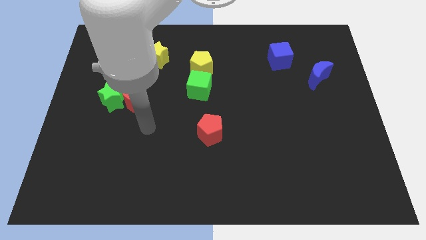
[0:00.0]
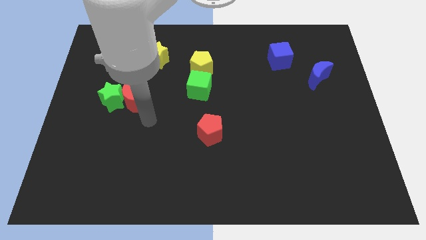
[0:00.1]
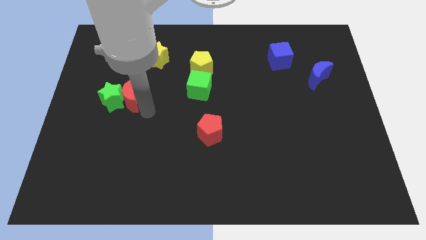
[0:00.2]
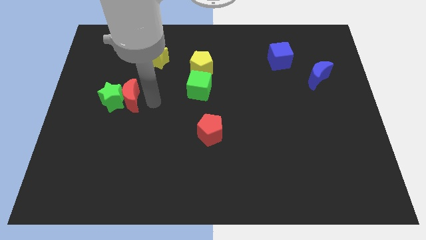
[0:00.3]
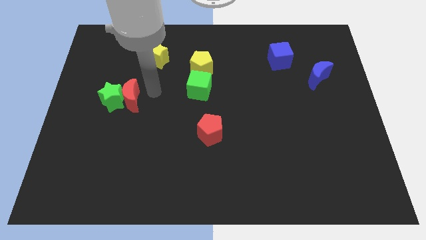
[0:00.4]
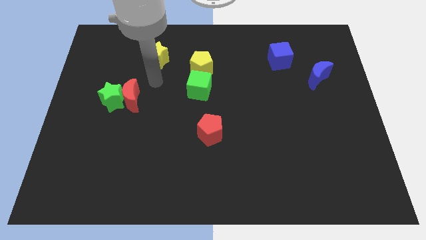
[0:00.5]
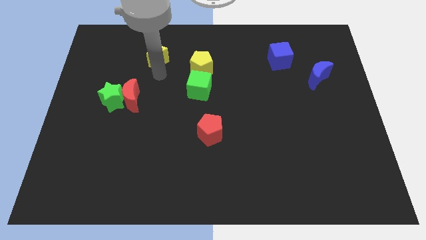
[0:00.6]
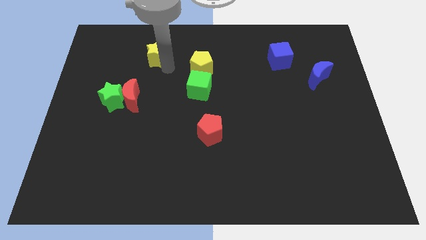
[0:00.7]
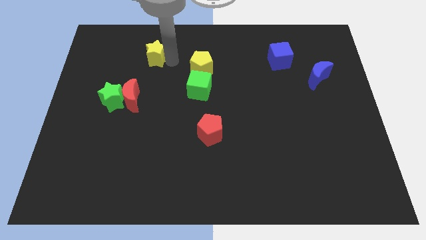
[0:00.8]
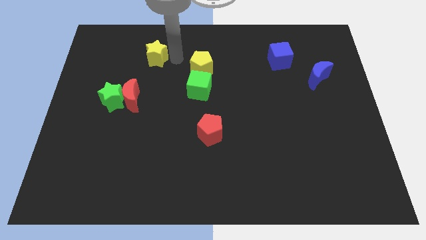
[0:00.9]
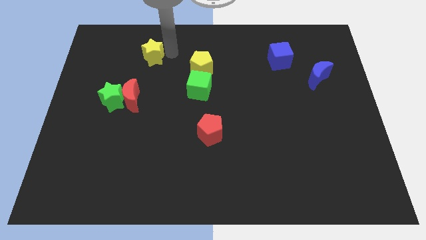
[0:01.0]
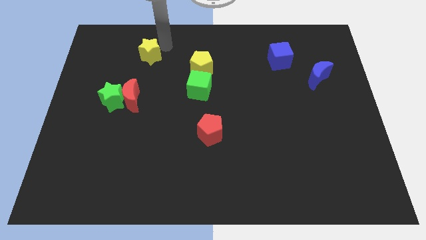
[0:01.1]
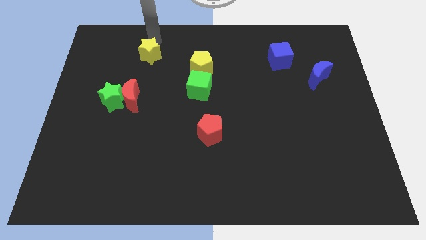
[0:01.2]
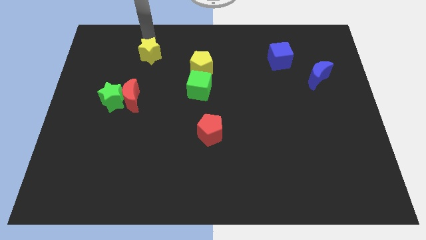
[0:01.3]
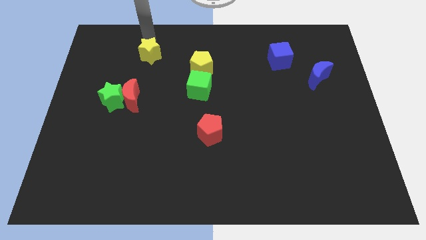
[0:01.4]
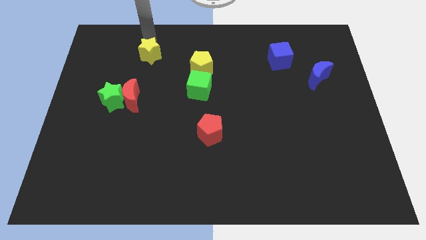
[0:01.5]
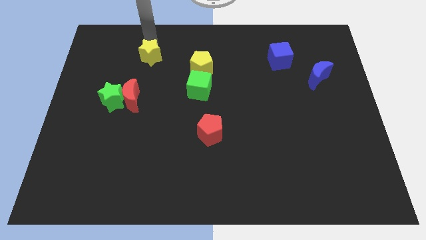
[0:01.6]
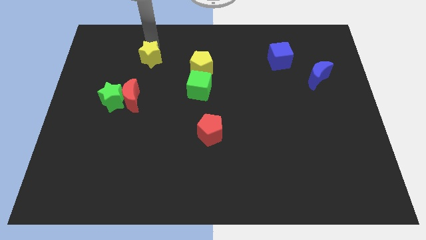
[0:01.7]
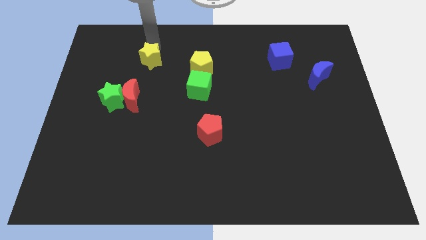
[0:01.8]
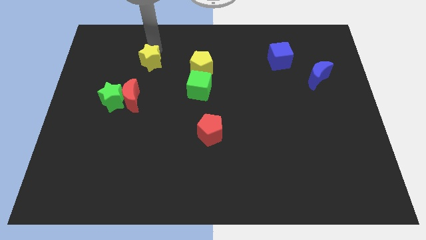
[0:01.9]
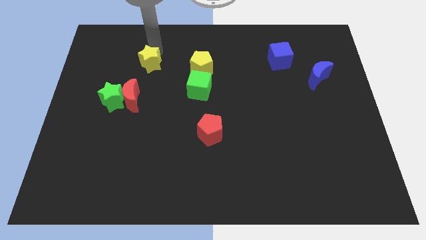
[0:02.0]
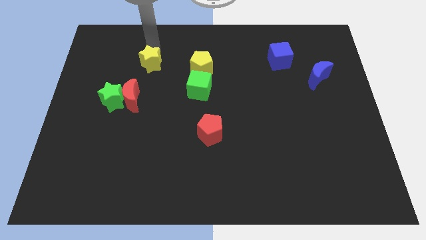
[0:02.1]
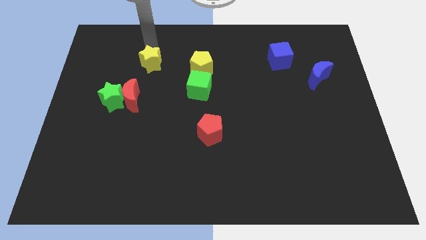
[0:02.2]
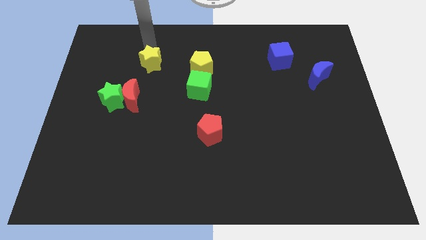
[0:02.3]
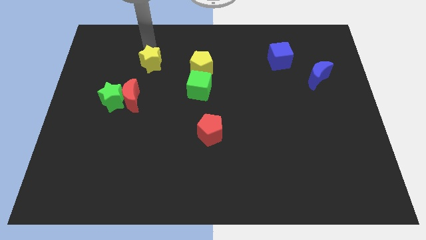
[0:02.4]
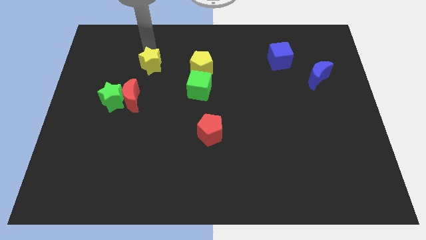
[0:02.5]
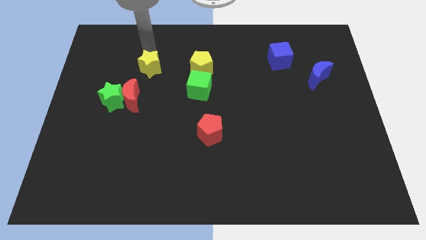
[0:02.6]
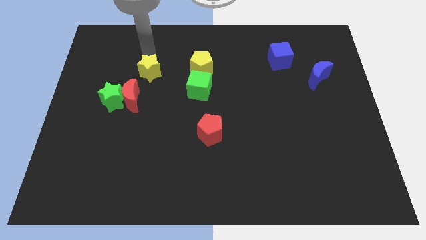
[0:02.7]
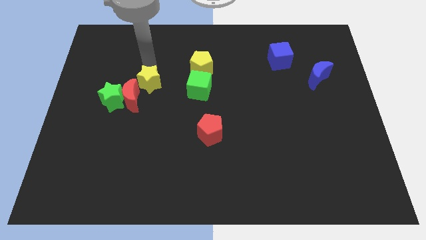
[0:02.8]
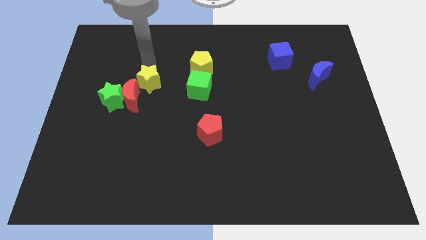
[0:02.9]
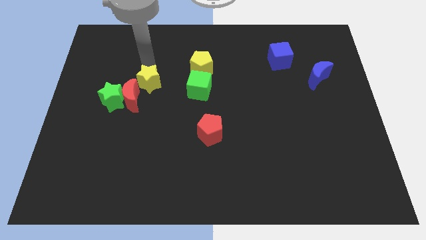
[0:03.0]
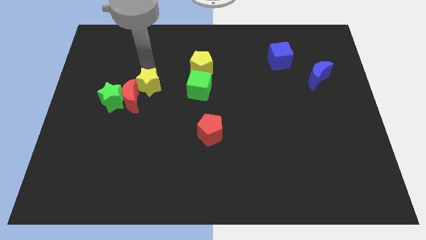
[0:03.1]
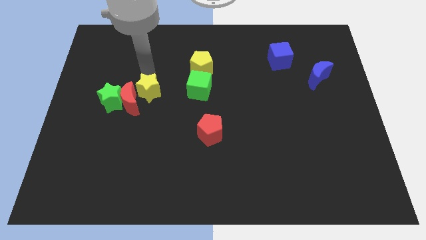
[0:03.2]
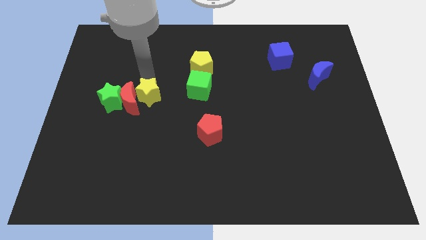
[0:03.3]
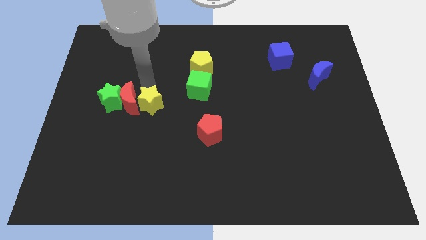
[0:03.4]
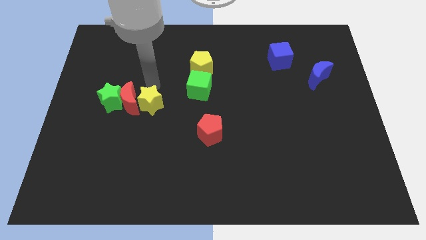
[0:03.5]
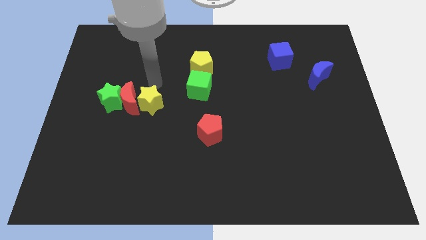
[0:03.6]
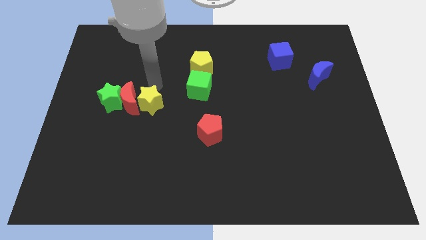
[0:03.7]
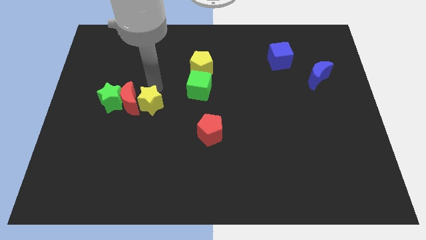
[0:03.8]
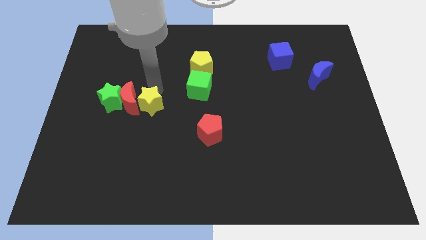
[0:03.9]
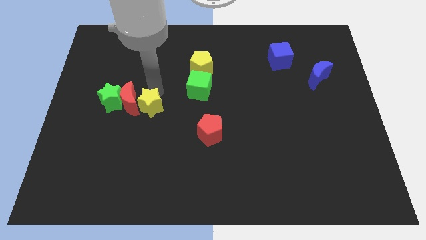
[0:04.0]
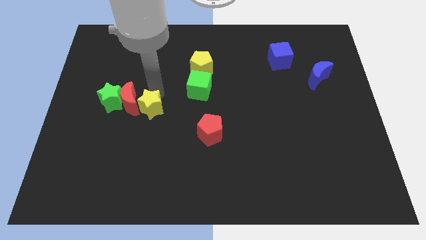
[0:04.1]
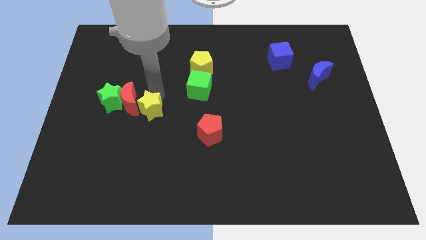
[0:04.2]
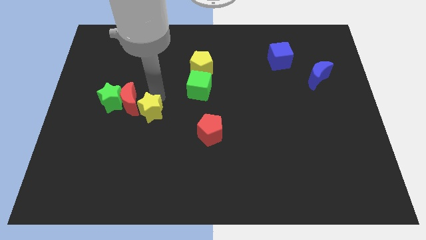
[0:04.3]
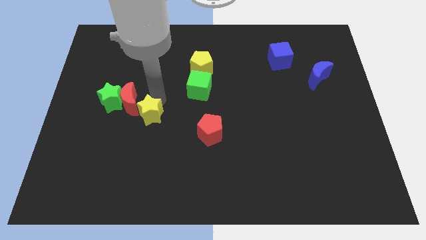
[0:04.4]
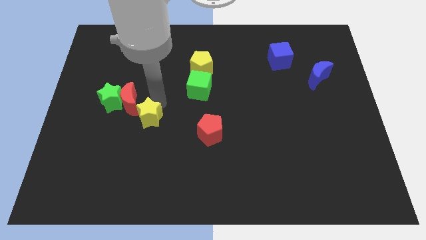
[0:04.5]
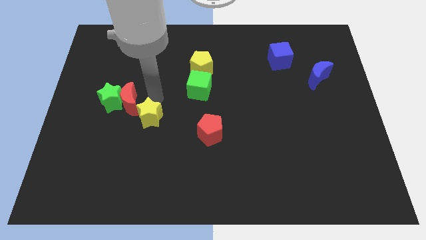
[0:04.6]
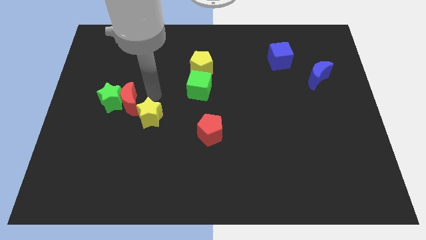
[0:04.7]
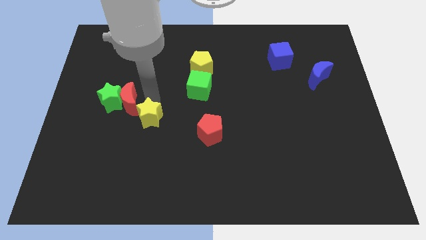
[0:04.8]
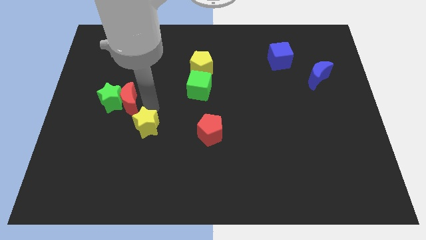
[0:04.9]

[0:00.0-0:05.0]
slide the yellow star down

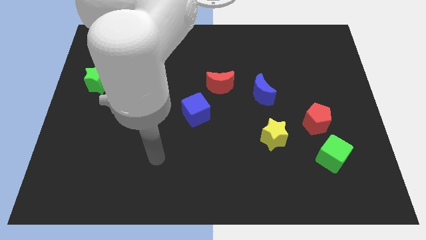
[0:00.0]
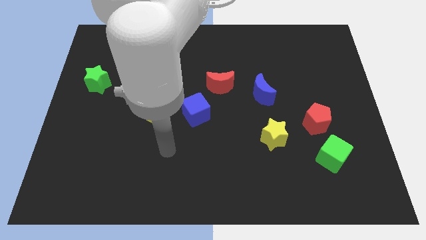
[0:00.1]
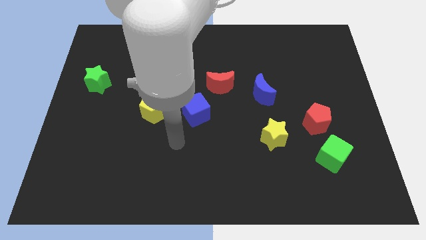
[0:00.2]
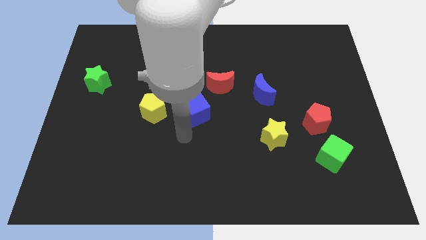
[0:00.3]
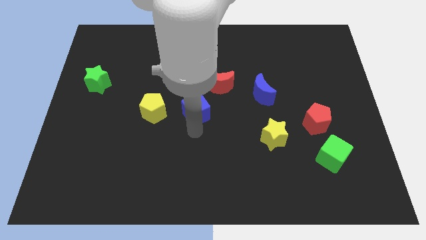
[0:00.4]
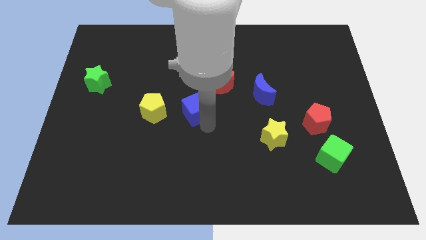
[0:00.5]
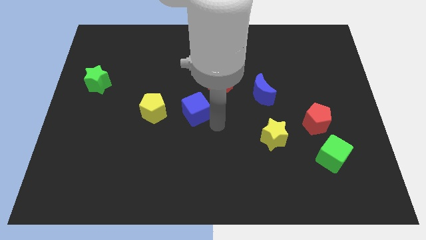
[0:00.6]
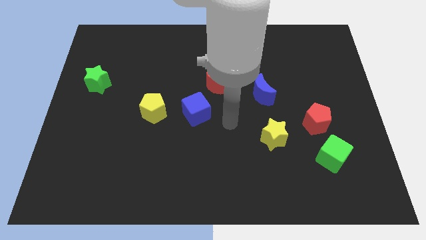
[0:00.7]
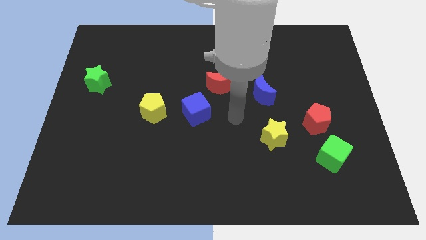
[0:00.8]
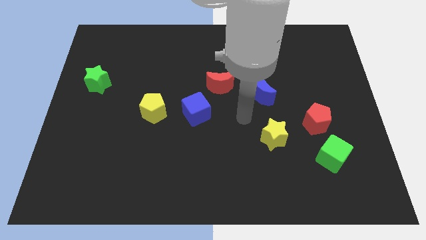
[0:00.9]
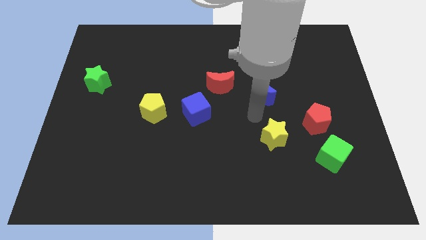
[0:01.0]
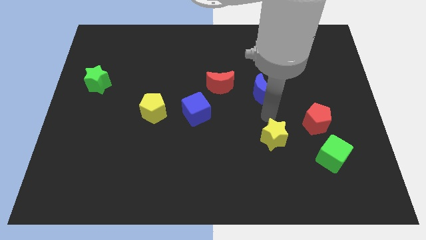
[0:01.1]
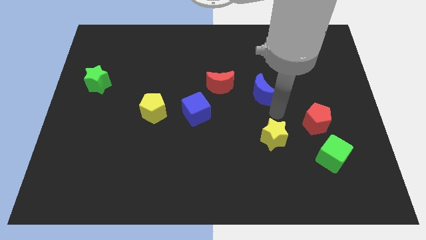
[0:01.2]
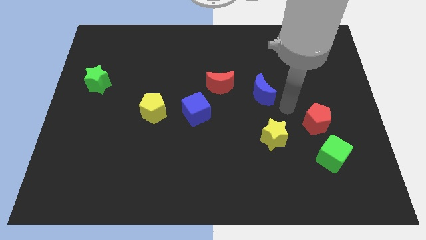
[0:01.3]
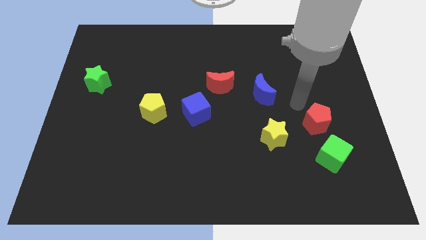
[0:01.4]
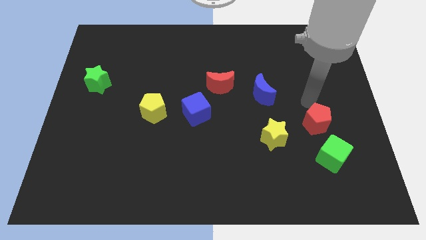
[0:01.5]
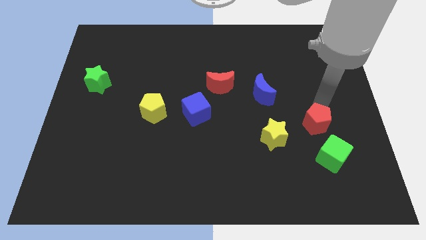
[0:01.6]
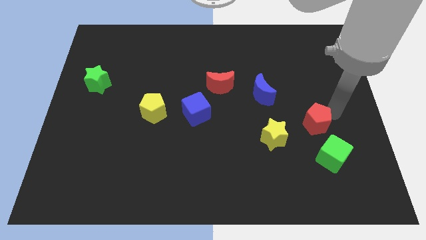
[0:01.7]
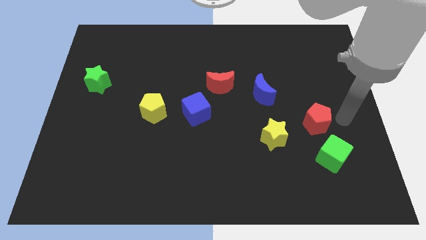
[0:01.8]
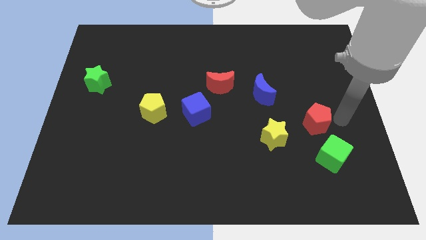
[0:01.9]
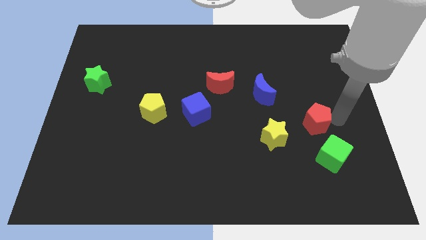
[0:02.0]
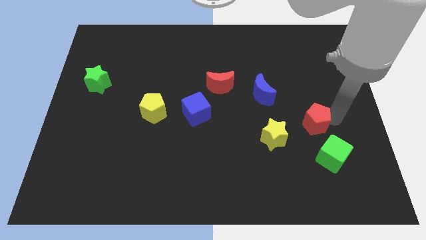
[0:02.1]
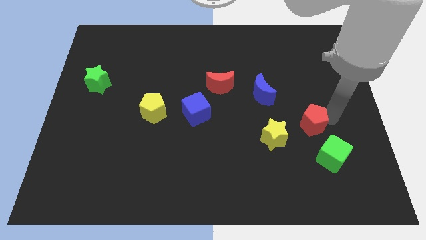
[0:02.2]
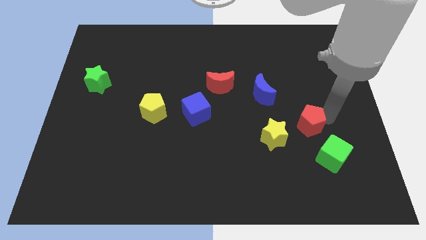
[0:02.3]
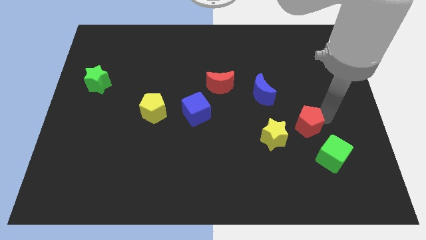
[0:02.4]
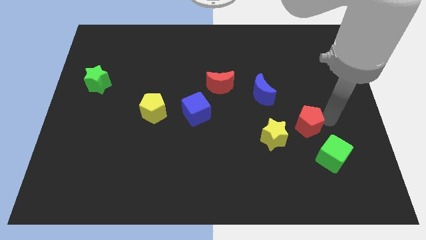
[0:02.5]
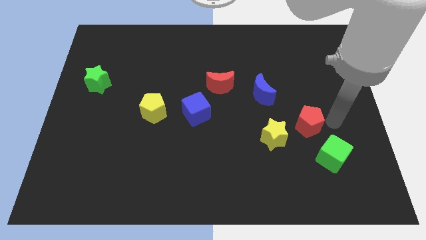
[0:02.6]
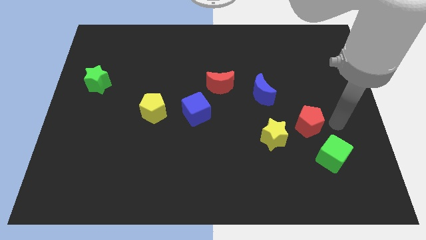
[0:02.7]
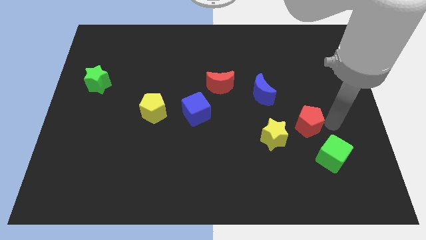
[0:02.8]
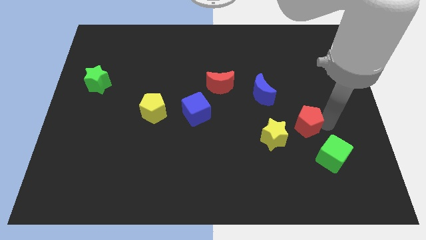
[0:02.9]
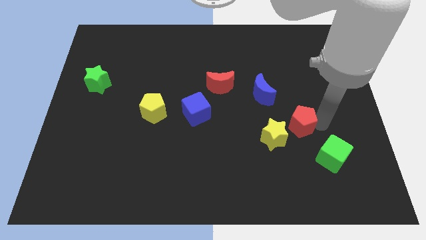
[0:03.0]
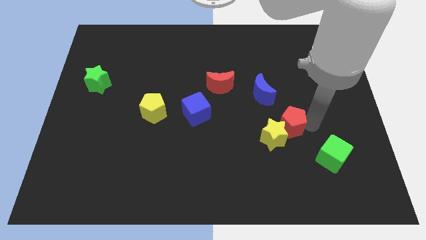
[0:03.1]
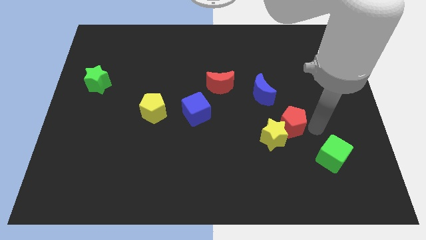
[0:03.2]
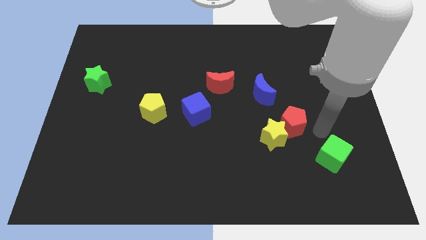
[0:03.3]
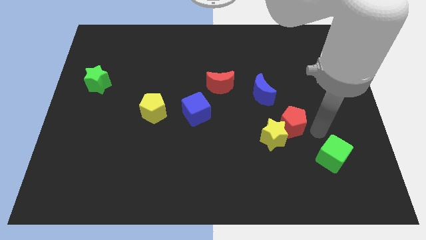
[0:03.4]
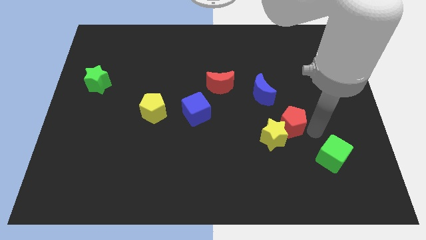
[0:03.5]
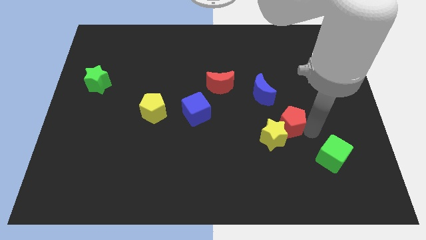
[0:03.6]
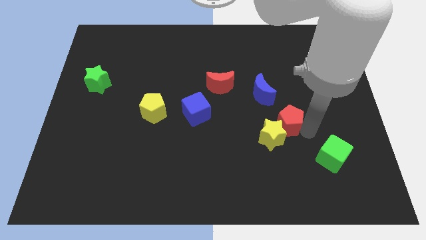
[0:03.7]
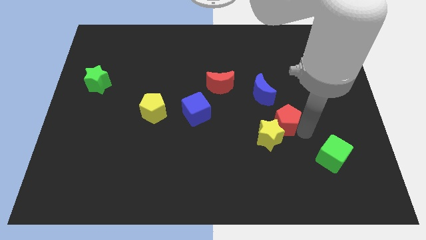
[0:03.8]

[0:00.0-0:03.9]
slightly slide the red pentagon to the left
